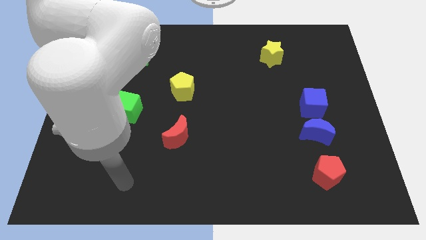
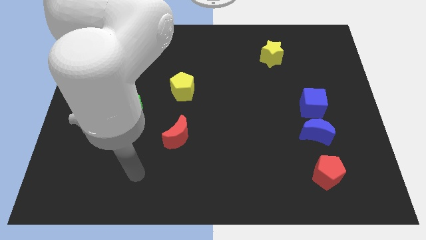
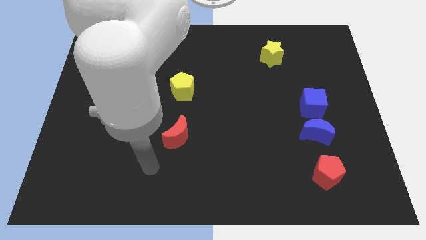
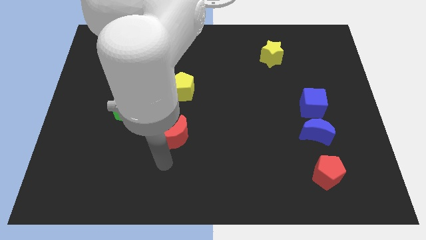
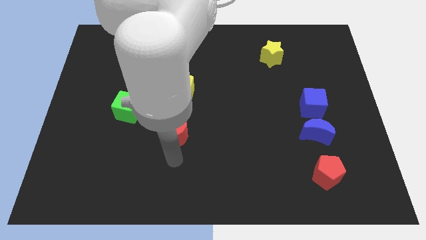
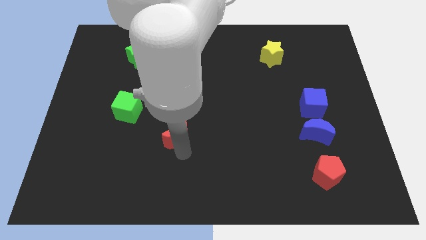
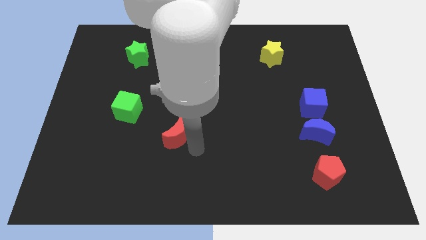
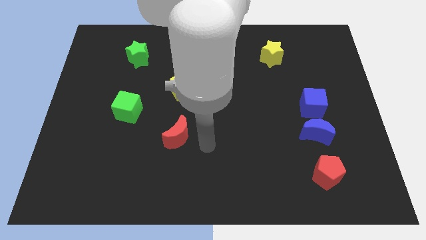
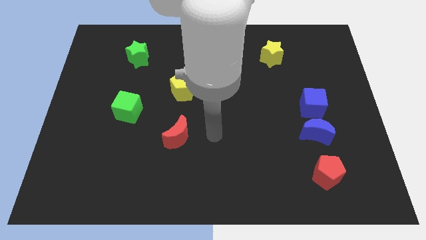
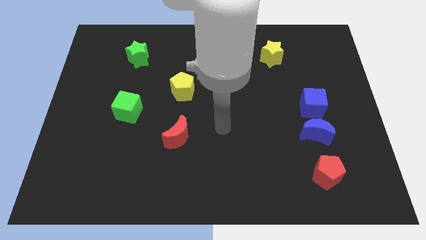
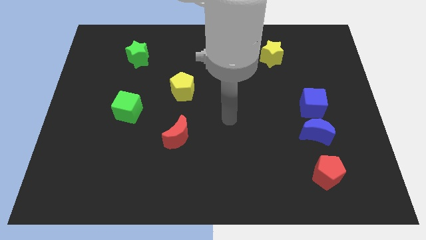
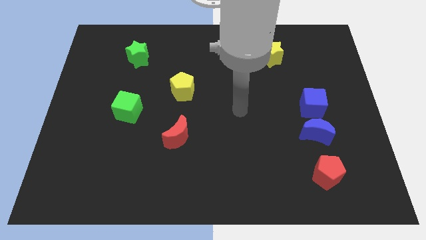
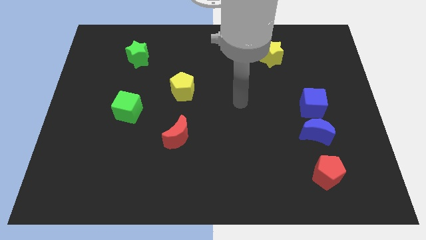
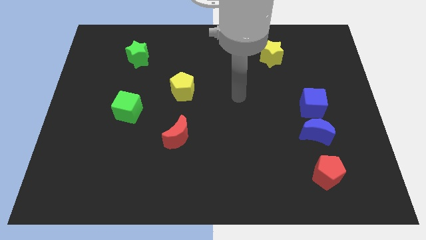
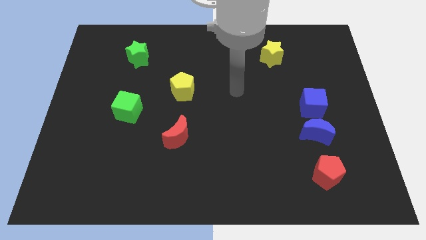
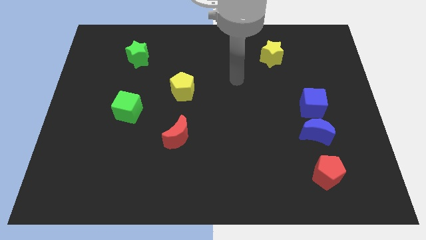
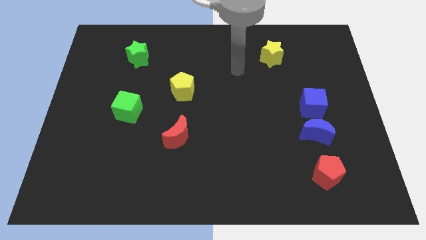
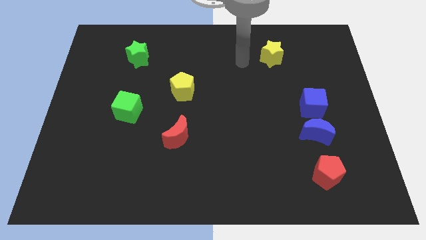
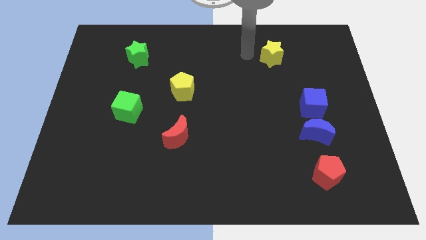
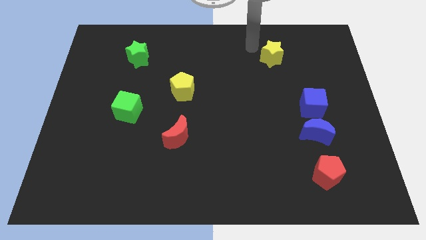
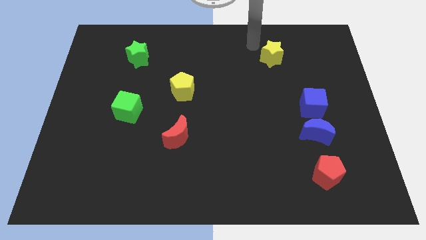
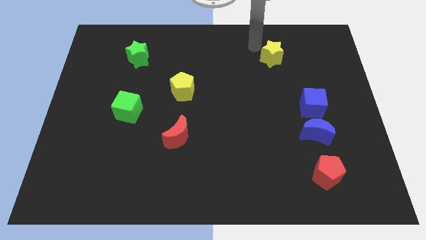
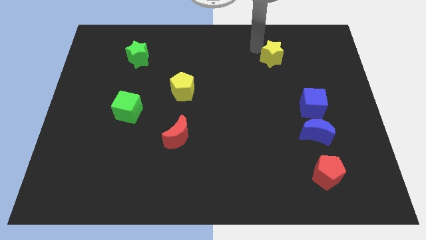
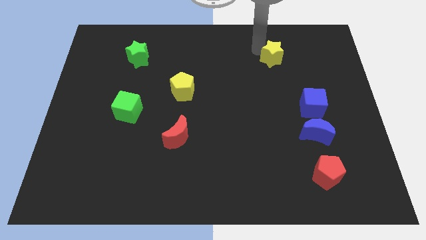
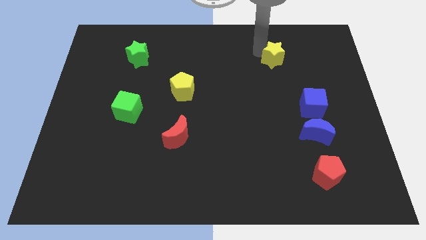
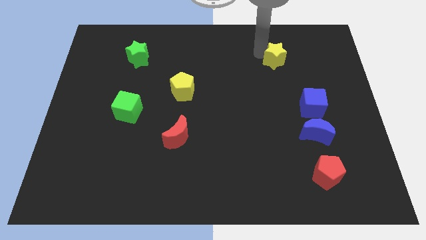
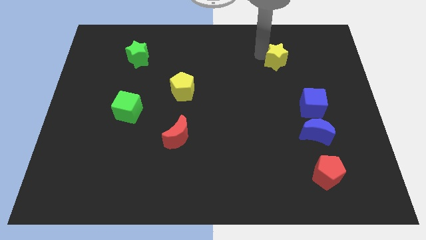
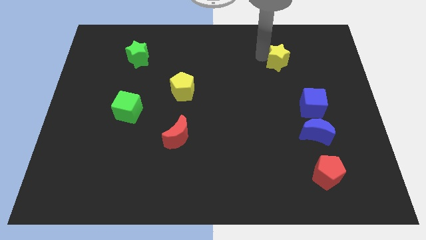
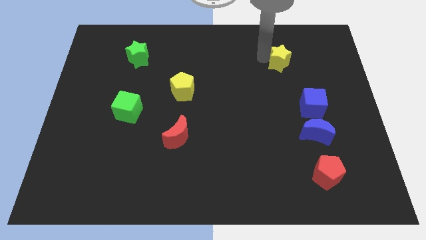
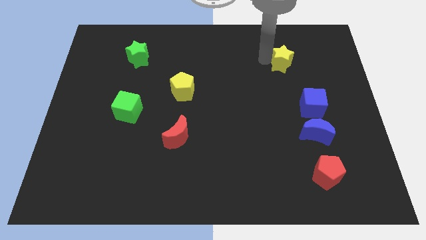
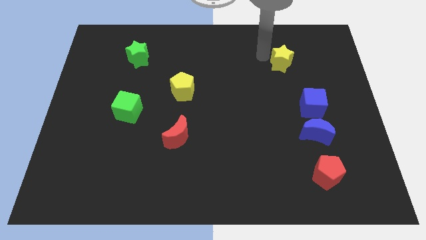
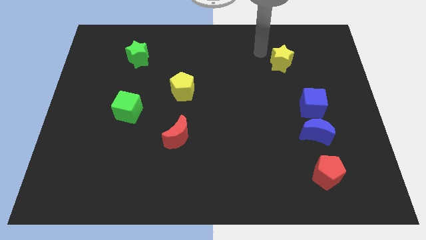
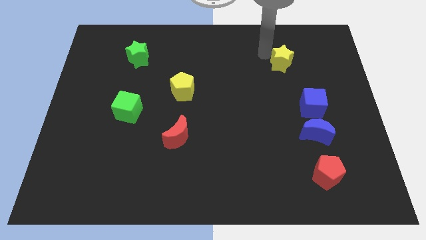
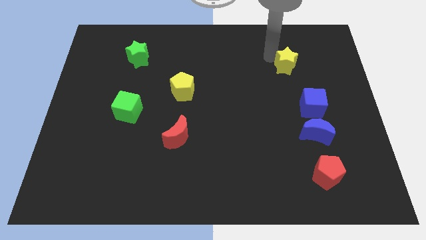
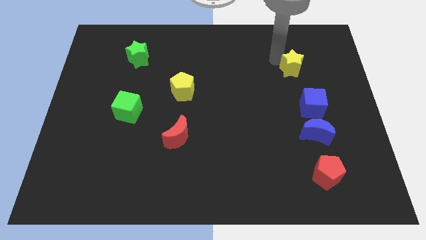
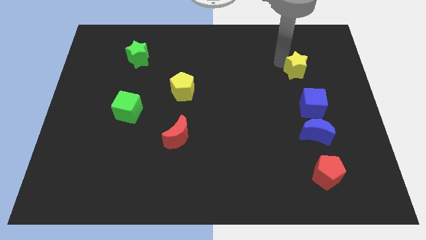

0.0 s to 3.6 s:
slightly move the yellow star downwards and then to the right

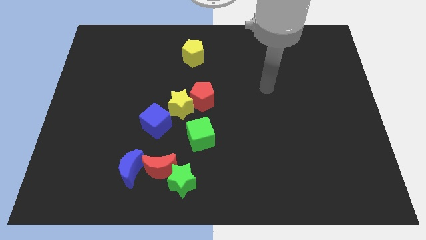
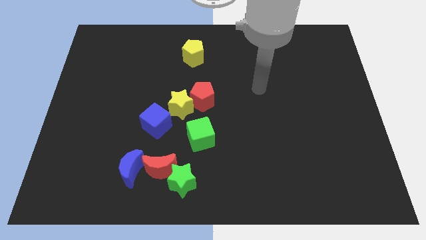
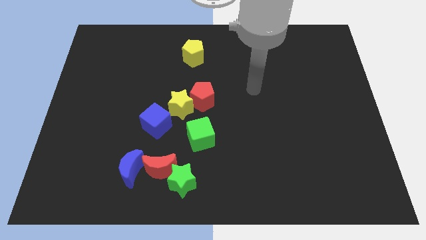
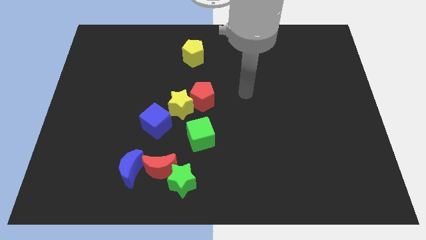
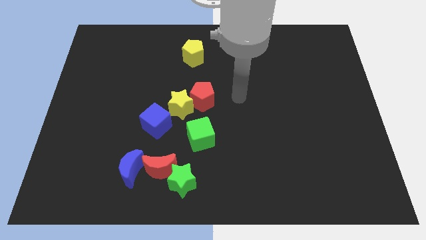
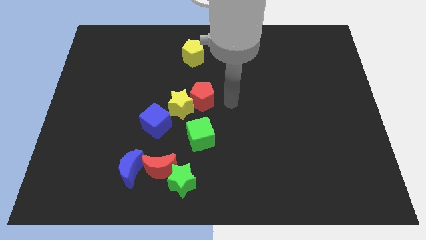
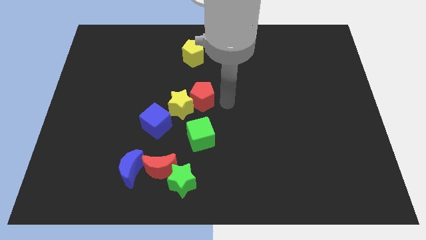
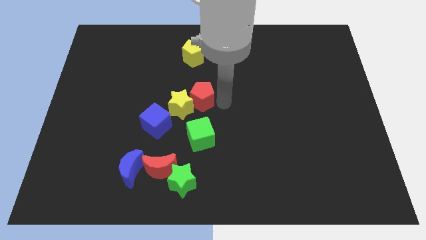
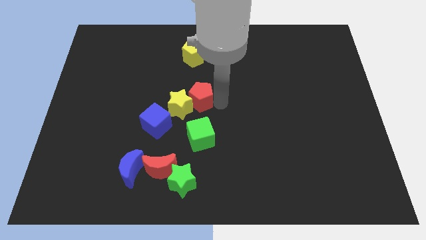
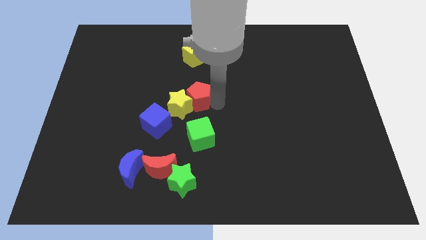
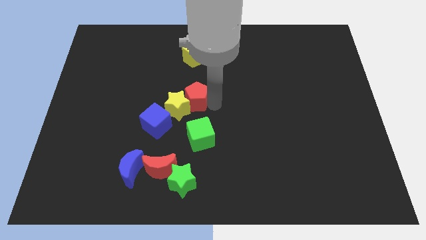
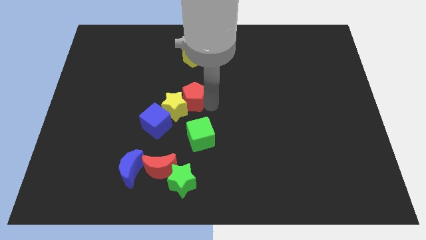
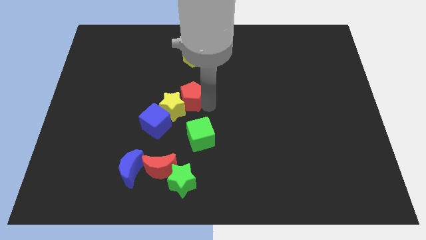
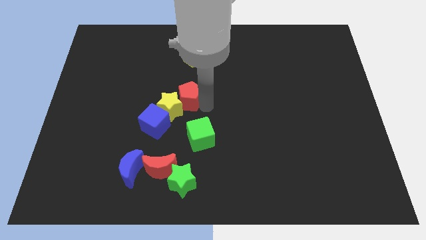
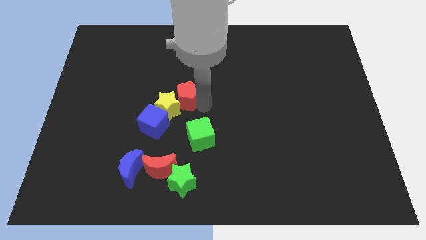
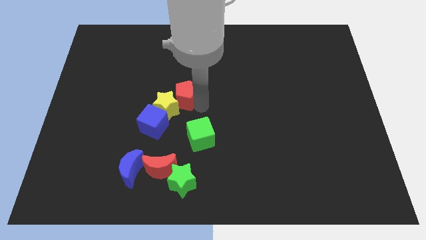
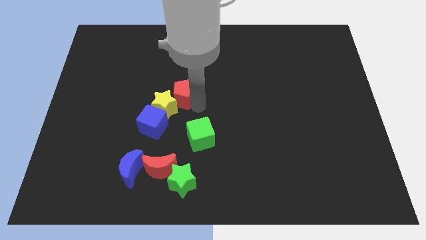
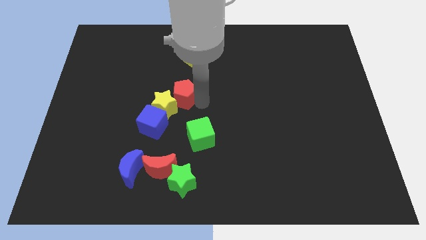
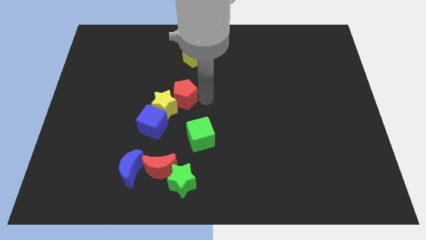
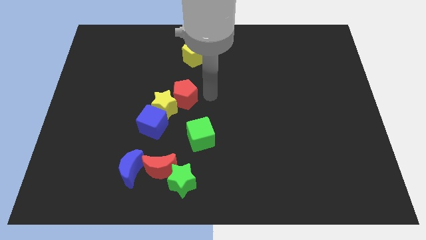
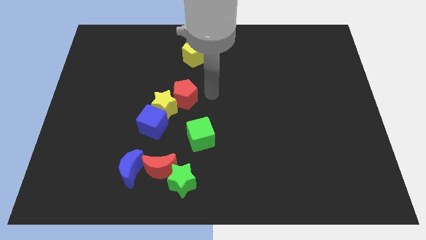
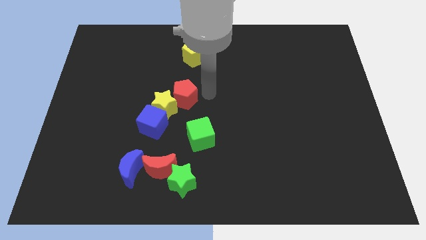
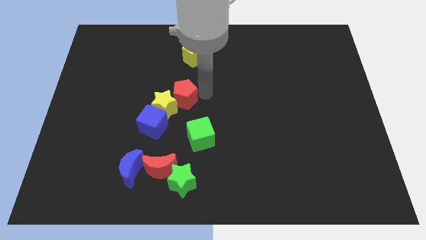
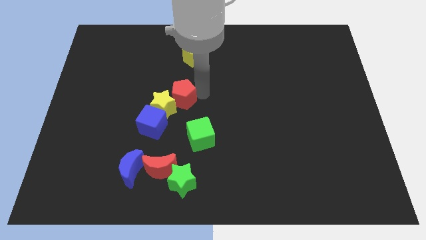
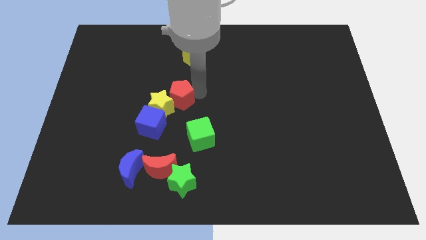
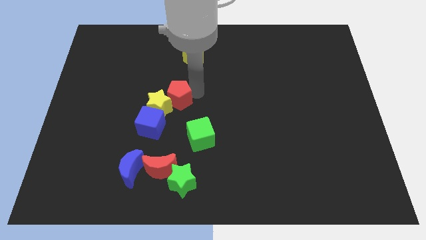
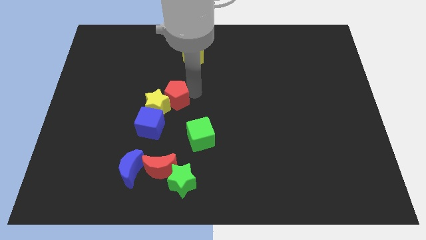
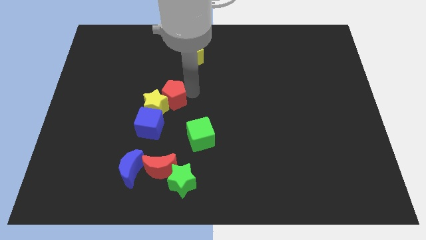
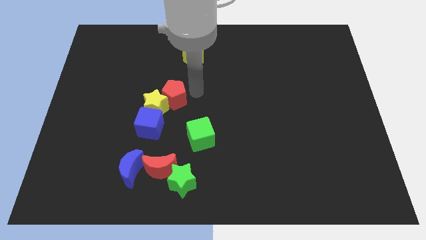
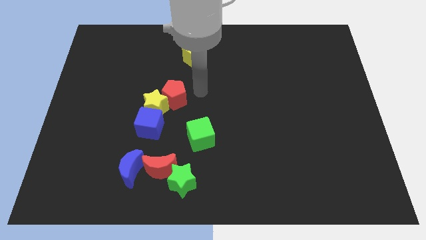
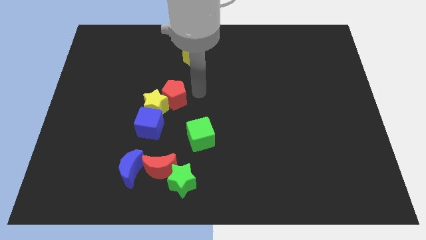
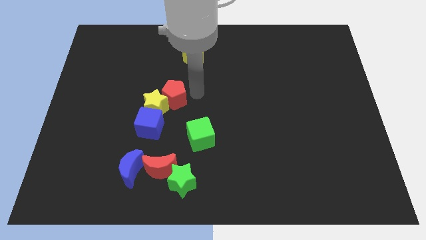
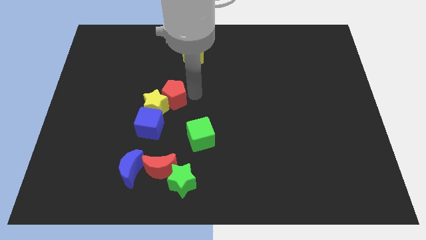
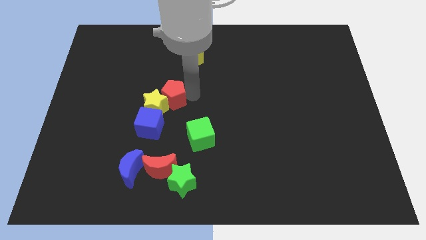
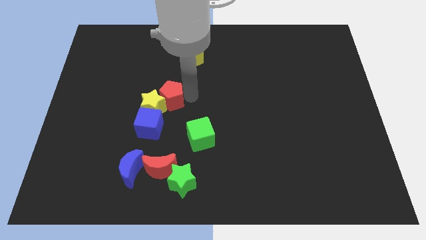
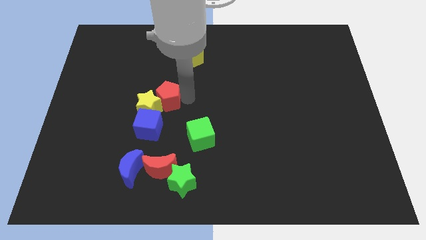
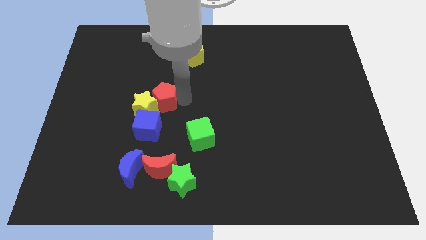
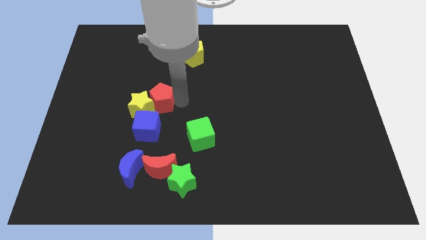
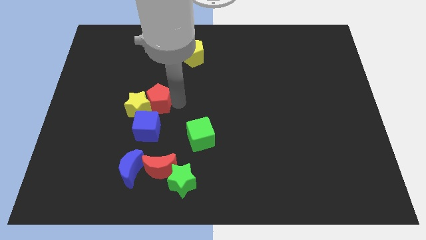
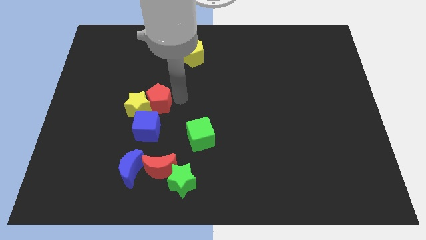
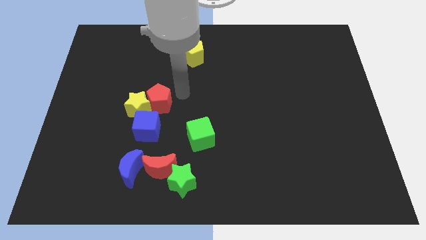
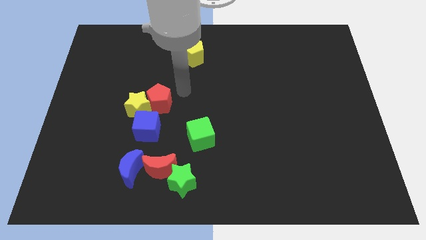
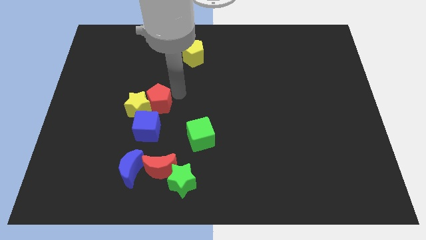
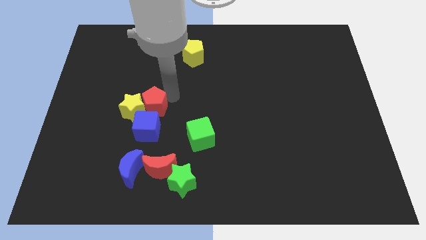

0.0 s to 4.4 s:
move the red pentagon downwards and then left a bit
